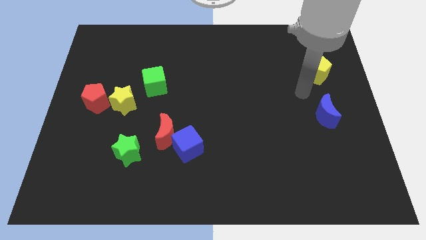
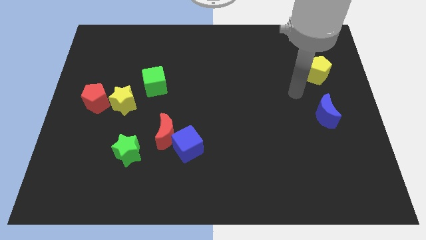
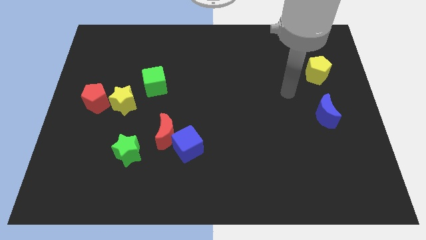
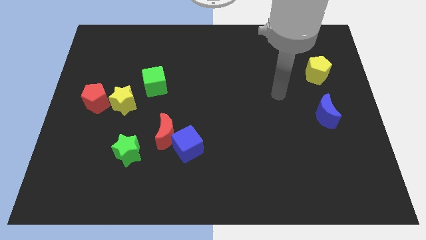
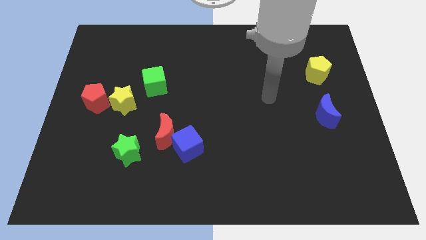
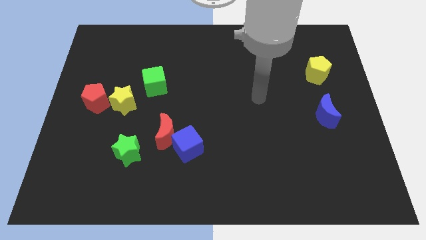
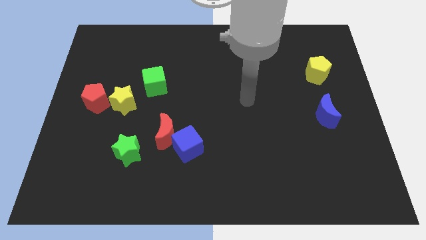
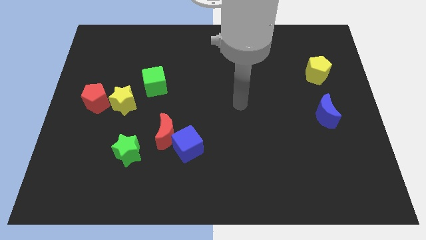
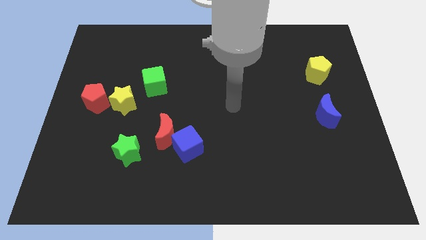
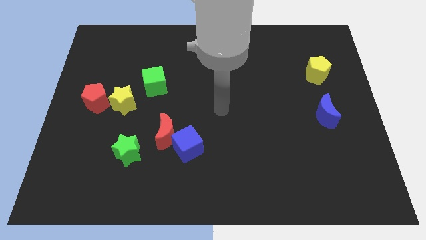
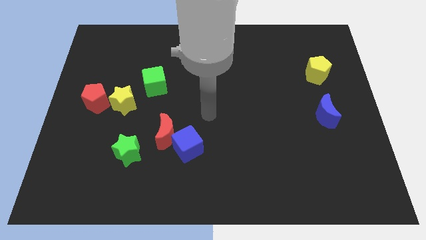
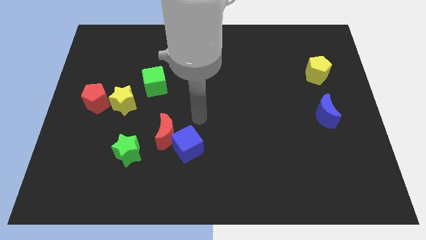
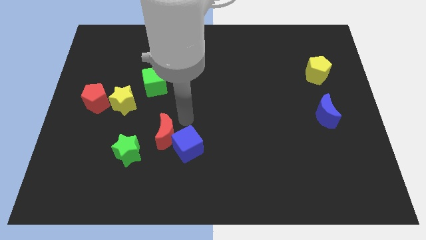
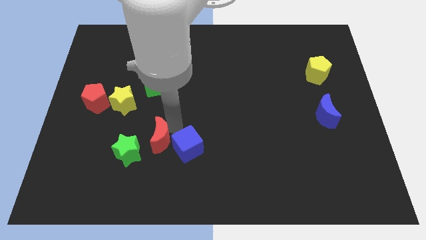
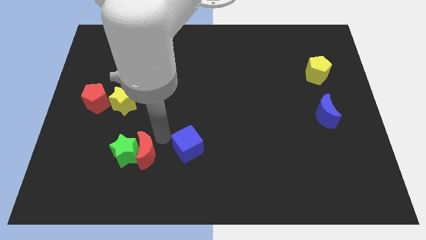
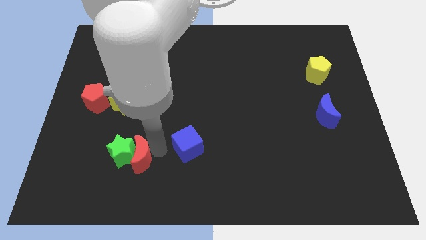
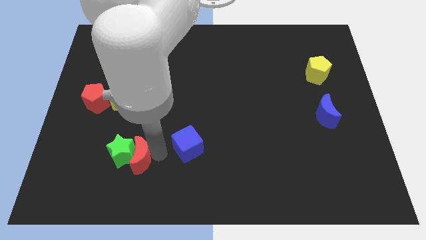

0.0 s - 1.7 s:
move the blue cube away from the red moon

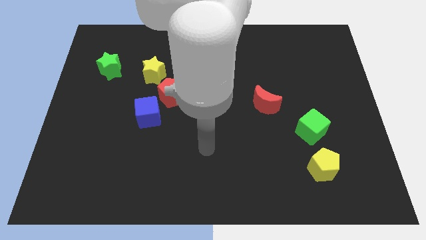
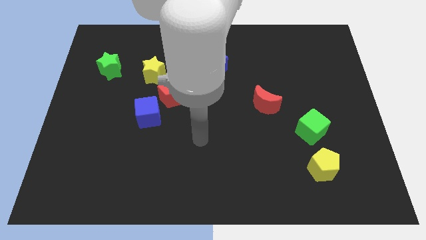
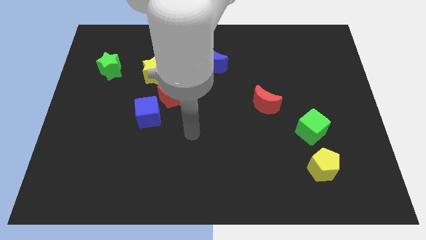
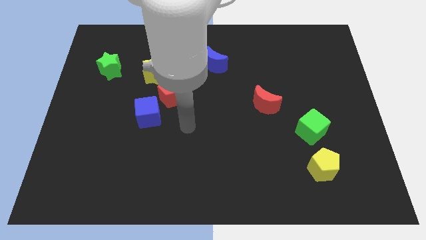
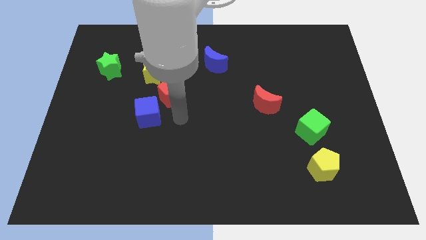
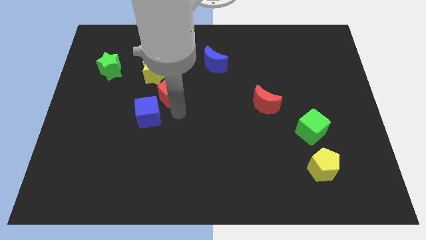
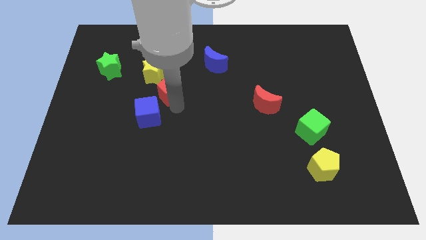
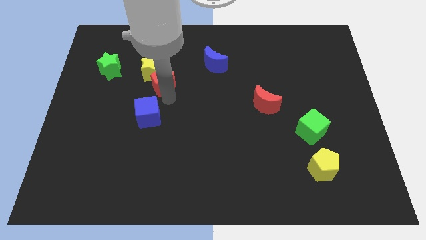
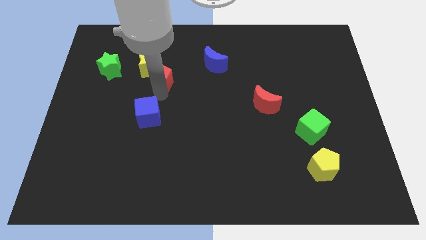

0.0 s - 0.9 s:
pull the blue cube apart from the red pentagon

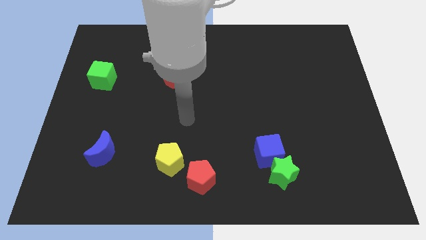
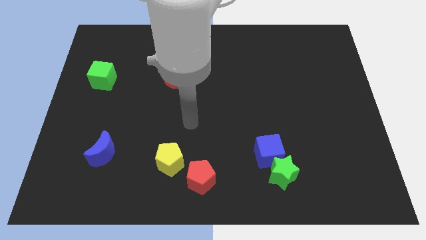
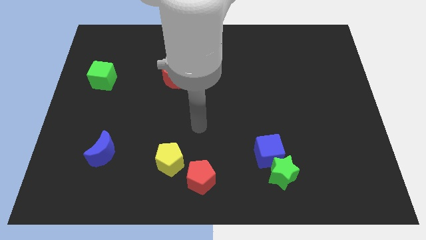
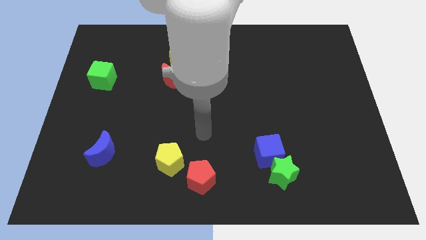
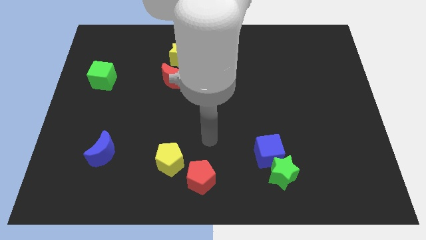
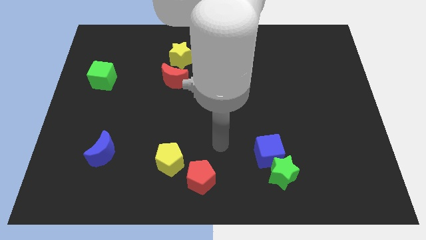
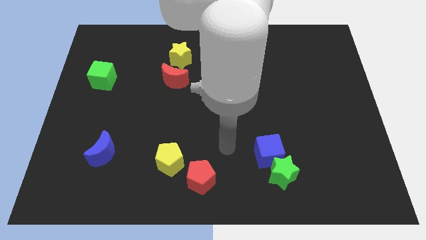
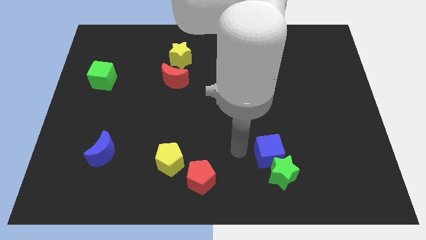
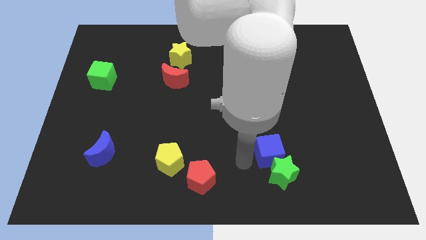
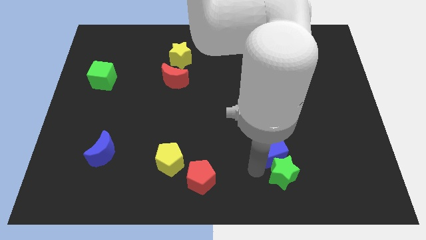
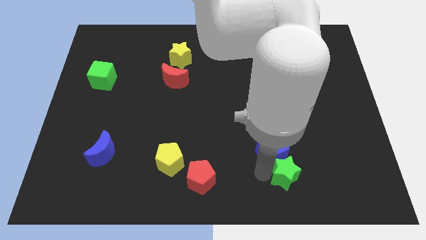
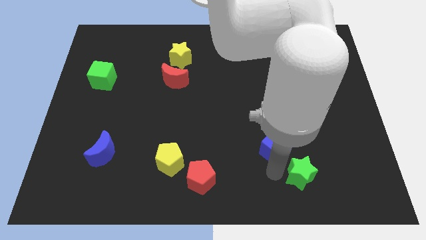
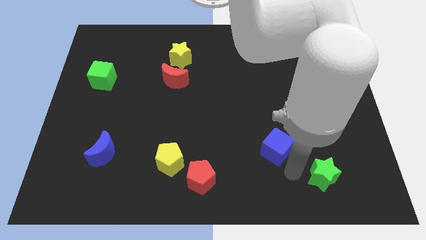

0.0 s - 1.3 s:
pull the blue cube apart from the green star

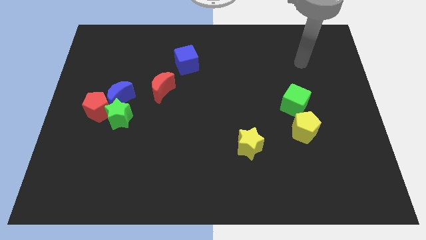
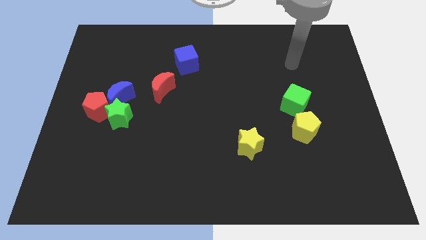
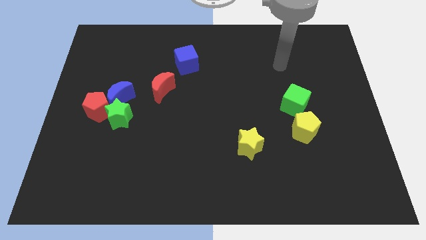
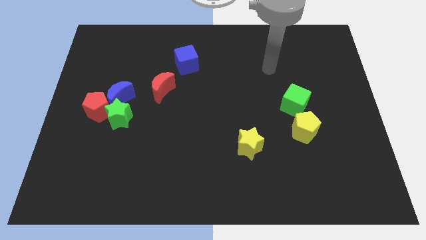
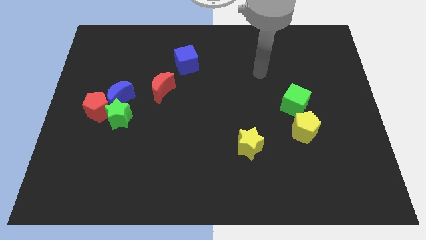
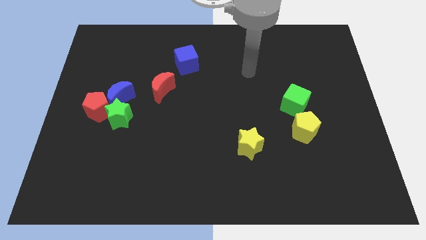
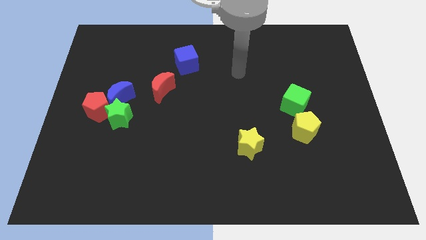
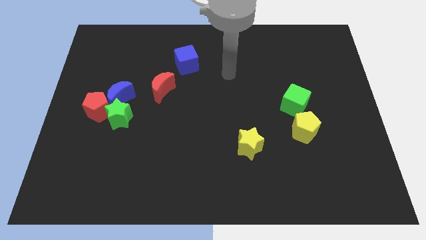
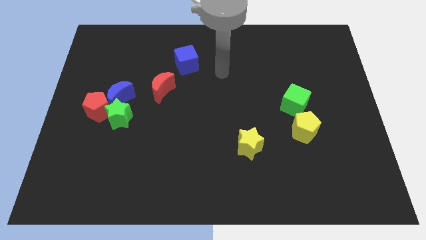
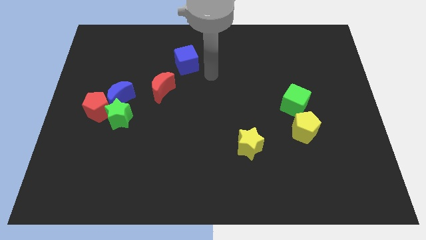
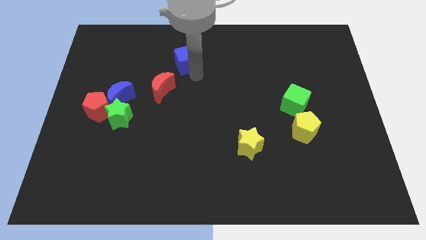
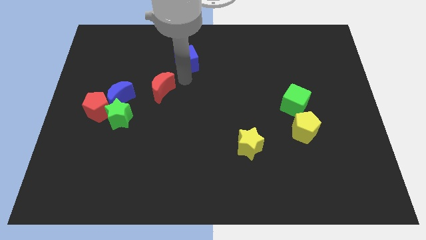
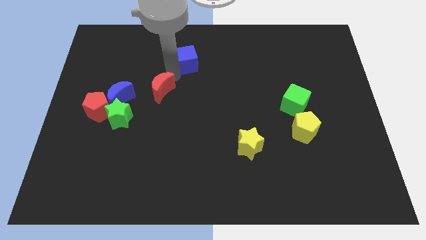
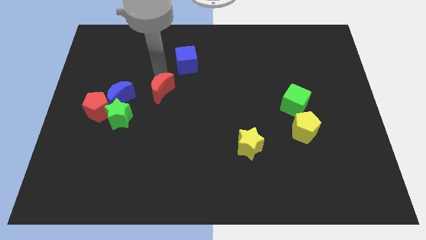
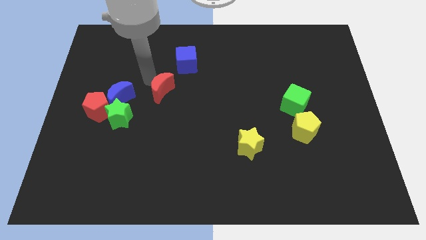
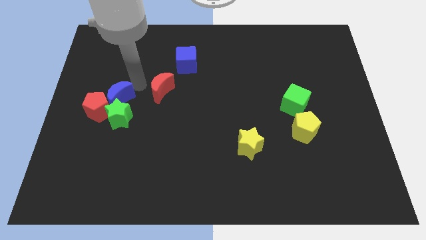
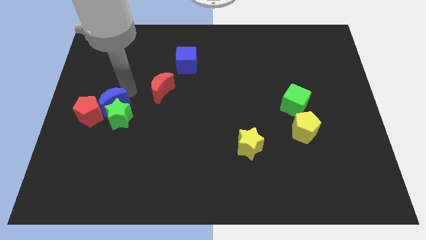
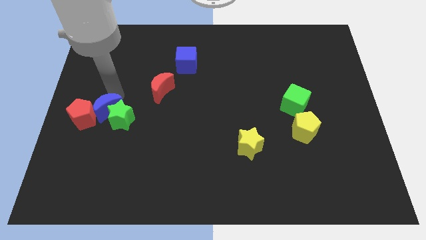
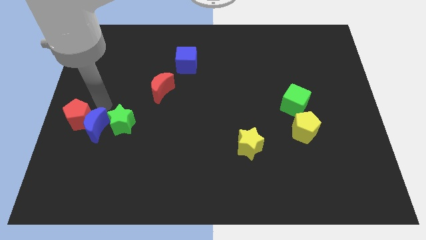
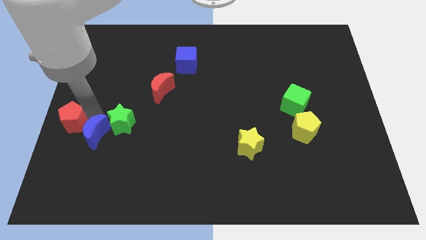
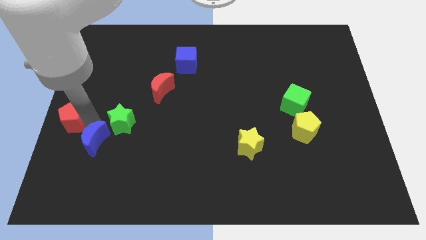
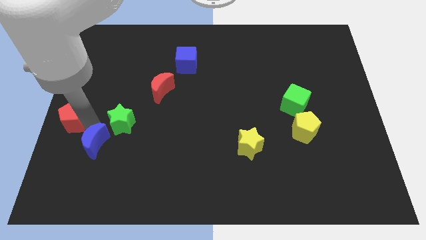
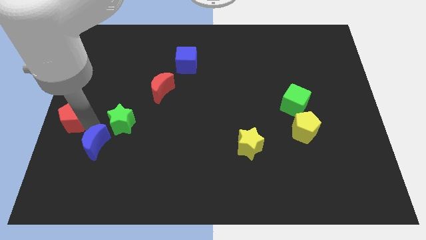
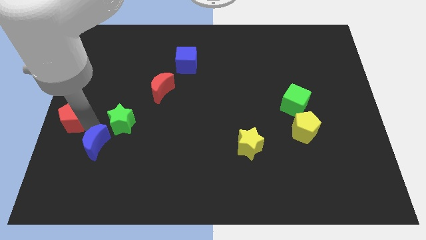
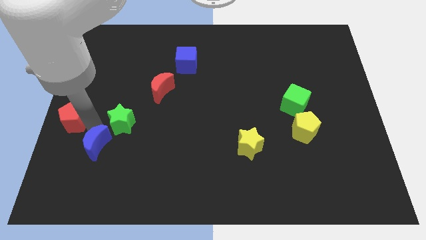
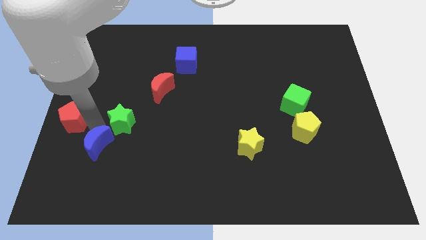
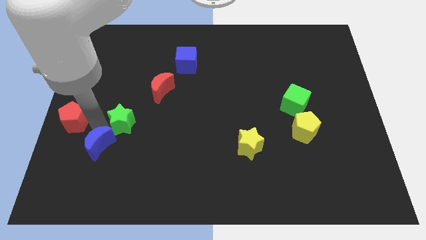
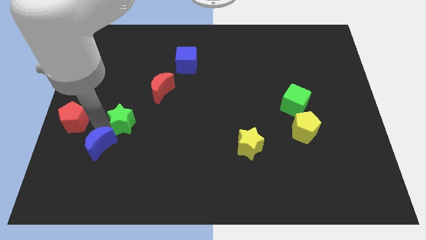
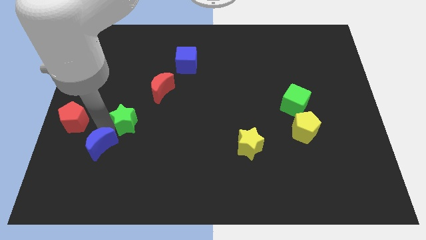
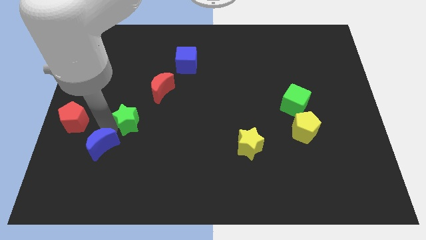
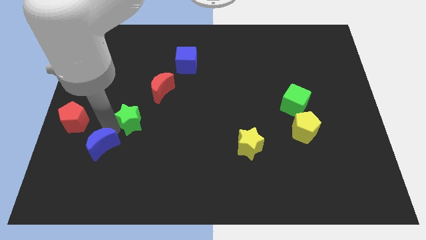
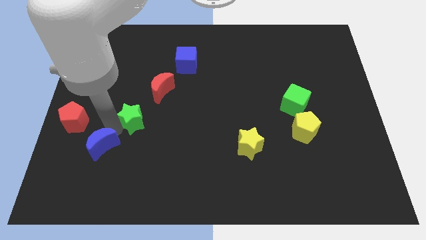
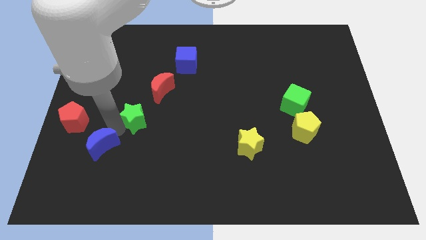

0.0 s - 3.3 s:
separate the green star from the red pentagon and blue moon

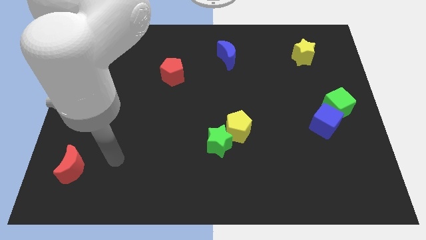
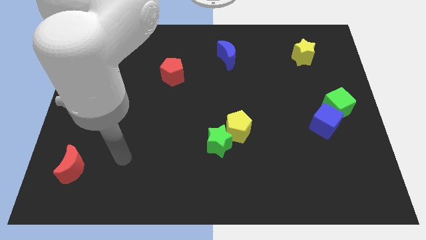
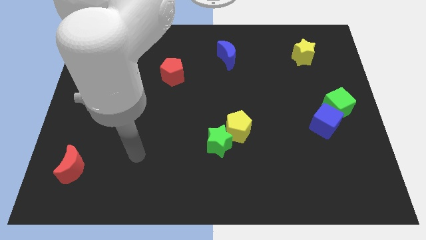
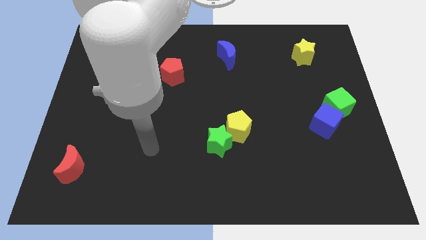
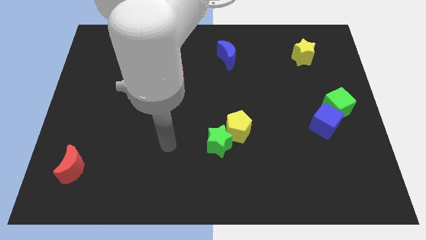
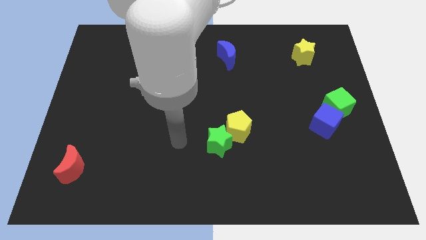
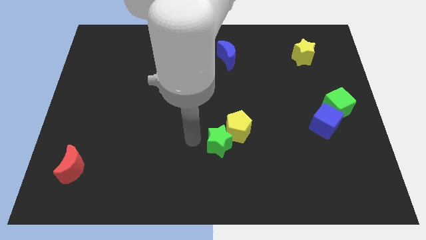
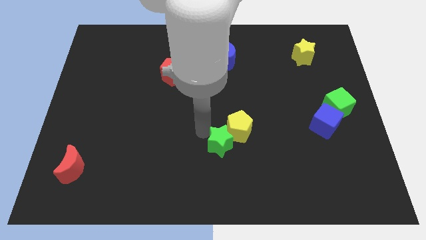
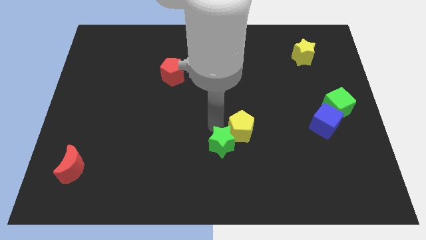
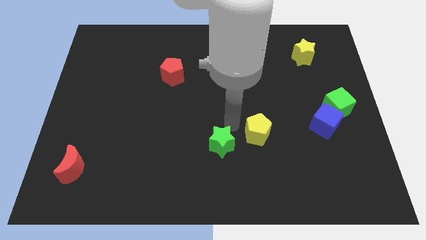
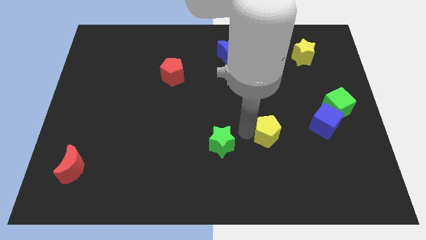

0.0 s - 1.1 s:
move the green star away from the yellow pentagon

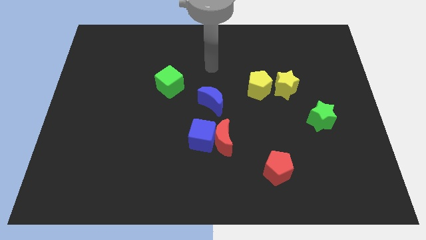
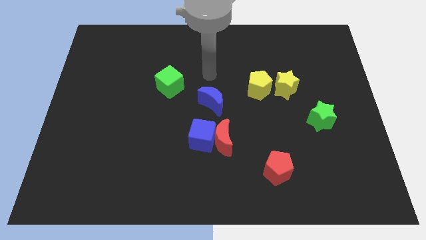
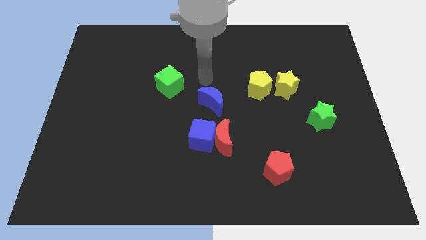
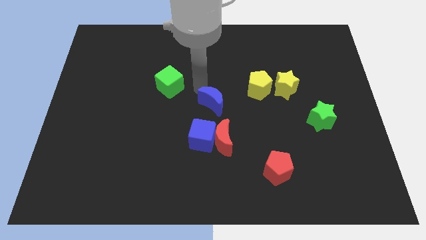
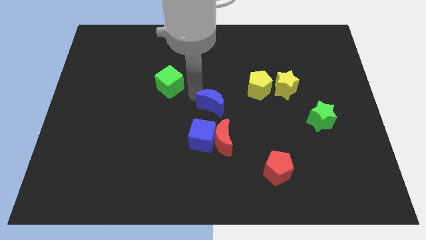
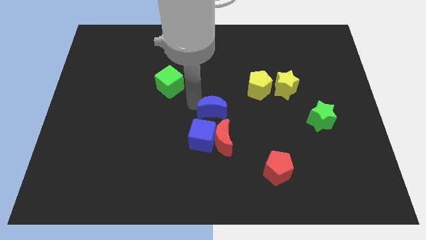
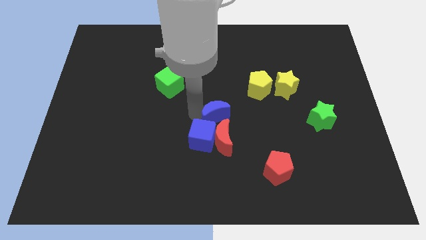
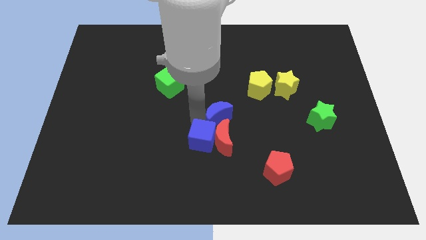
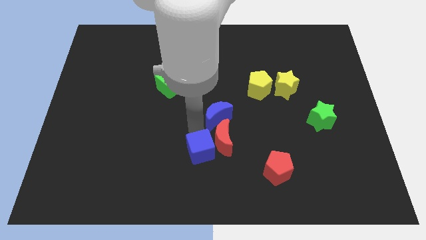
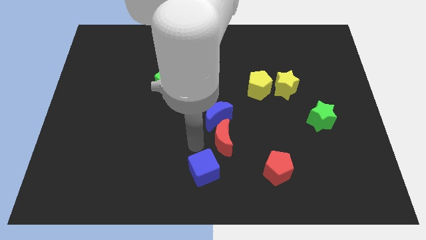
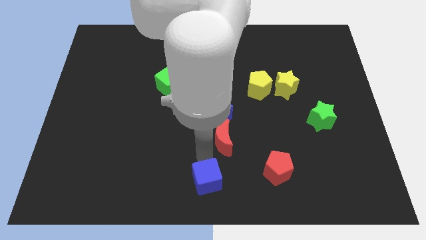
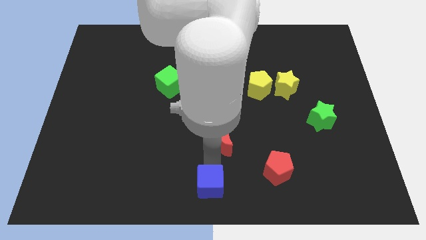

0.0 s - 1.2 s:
separate the red moon from the blue cube

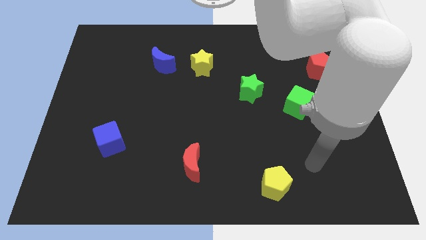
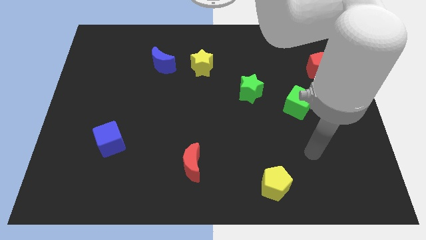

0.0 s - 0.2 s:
separate the blue moon from the yellow star
